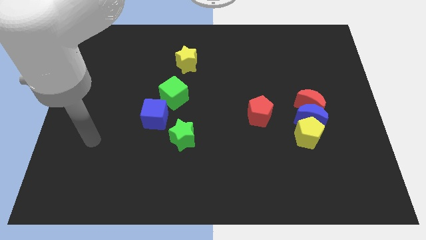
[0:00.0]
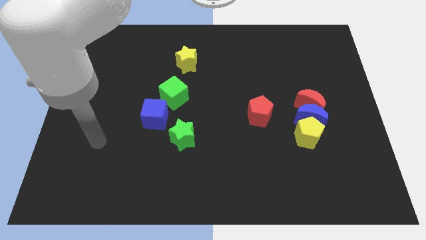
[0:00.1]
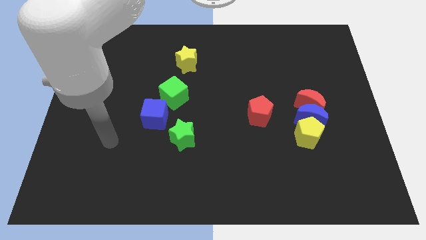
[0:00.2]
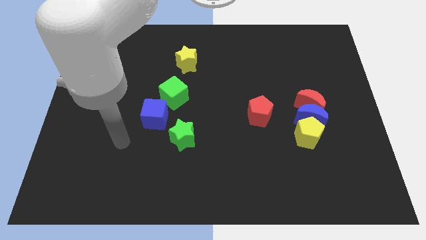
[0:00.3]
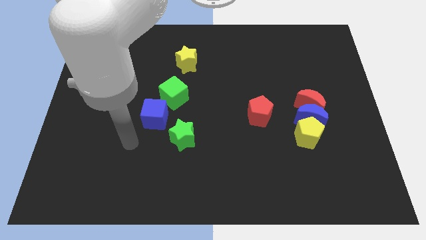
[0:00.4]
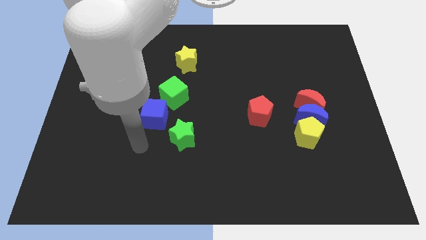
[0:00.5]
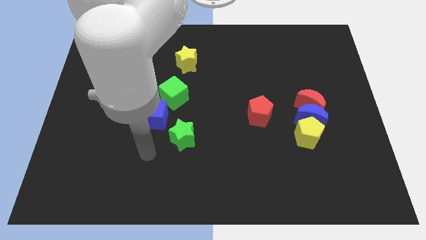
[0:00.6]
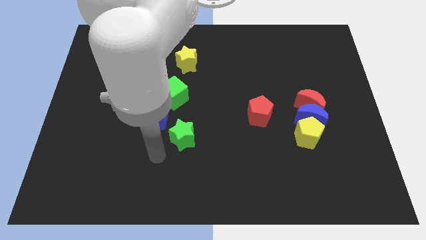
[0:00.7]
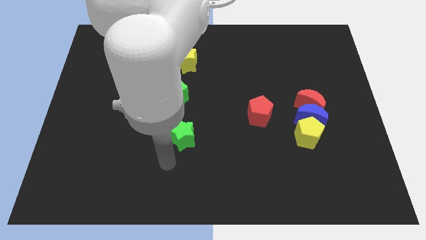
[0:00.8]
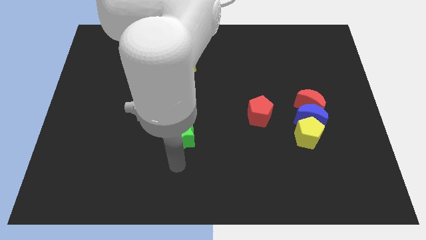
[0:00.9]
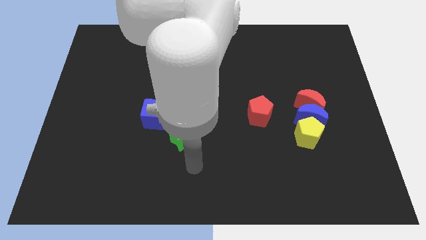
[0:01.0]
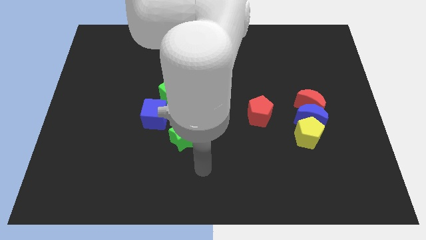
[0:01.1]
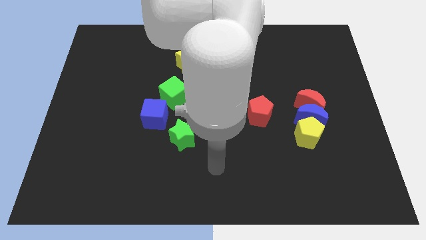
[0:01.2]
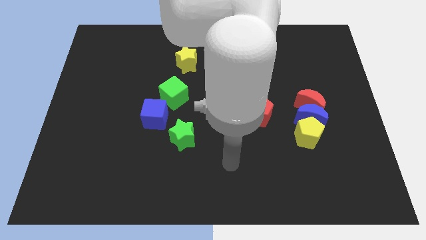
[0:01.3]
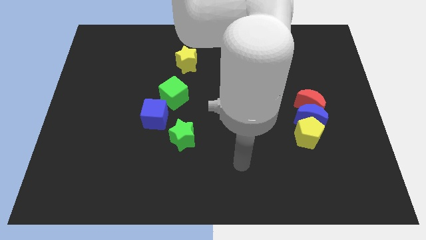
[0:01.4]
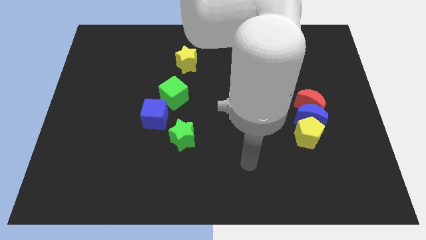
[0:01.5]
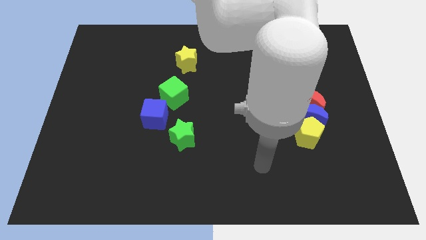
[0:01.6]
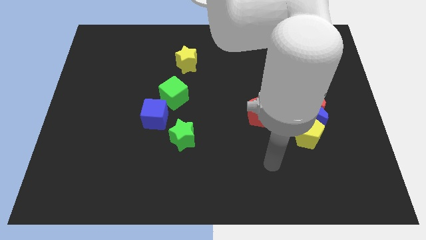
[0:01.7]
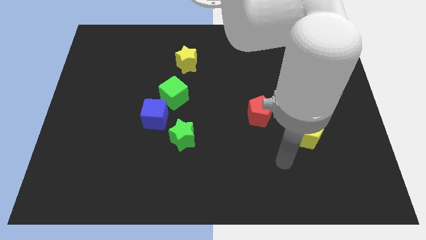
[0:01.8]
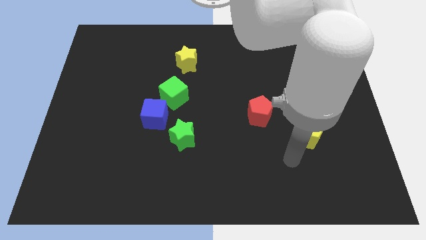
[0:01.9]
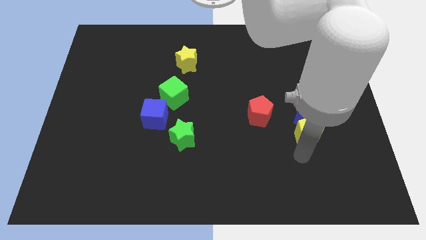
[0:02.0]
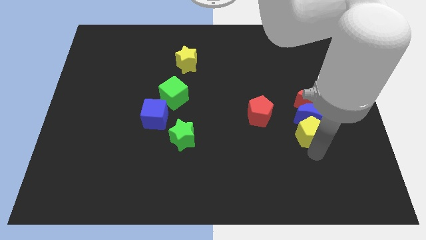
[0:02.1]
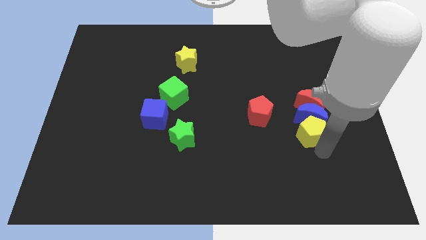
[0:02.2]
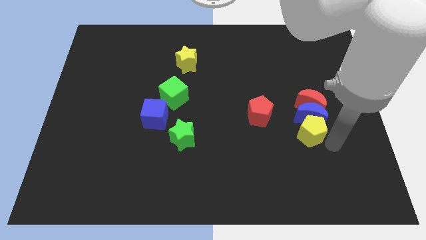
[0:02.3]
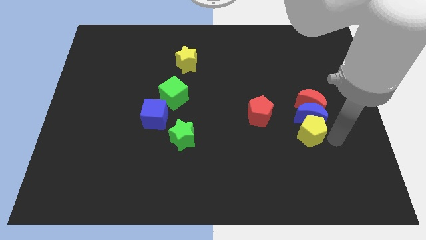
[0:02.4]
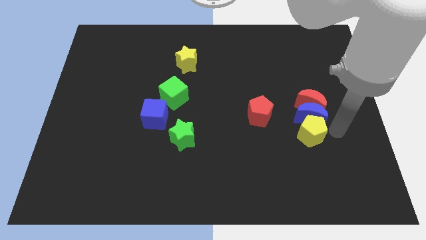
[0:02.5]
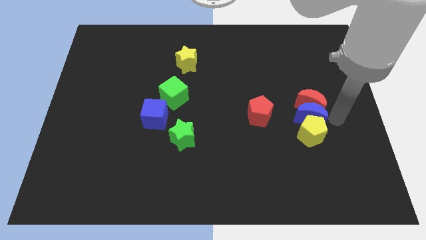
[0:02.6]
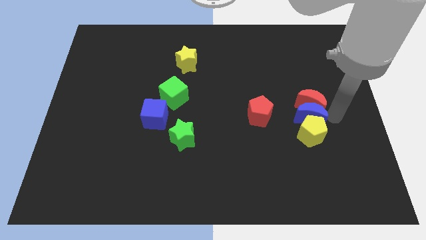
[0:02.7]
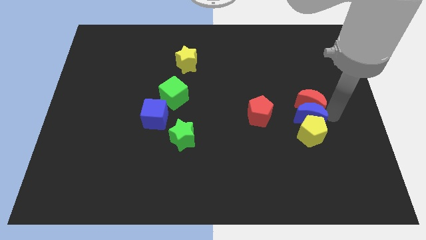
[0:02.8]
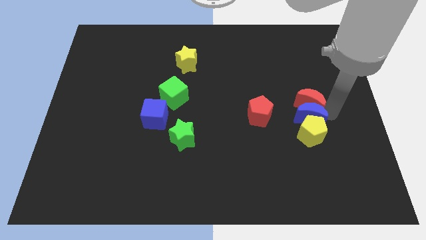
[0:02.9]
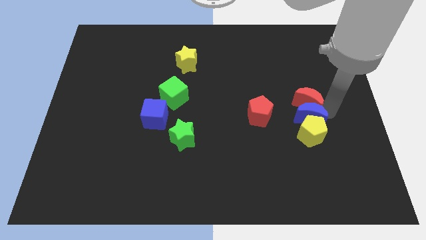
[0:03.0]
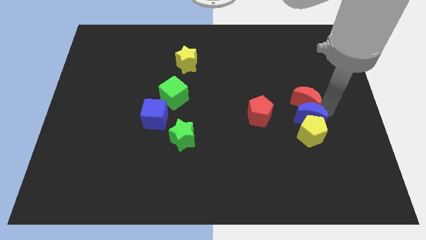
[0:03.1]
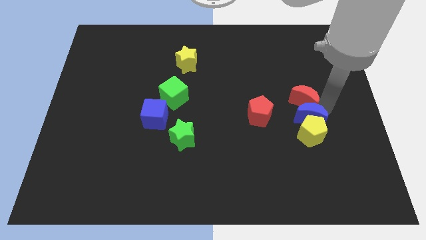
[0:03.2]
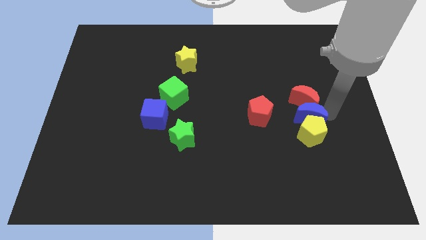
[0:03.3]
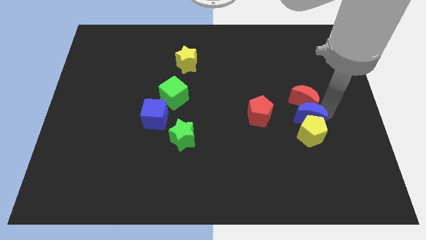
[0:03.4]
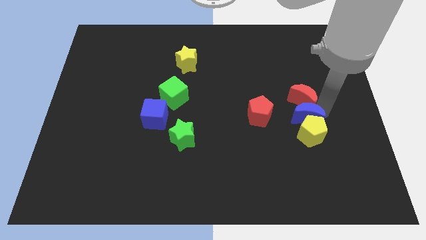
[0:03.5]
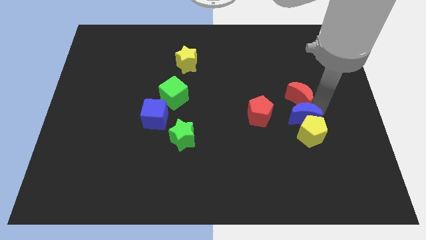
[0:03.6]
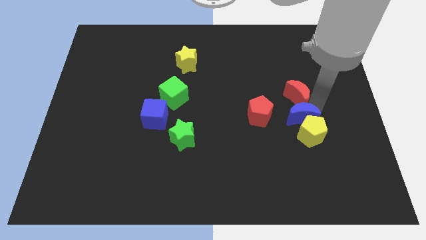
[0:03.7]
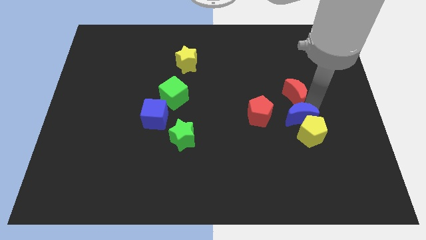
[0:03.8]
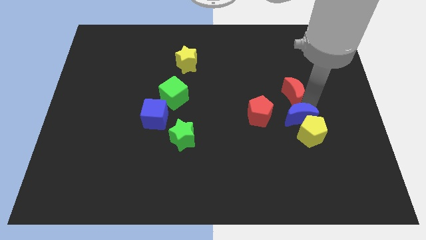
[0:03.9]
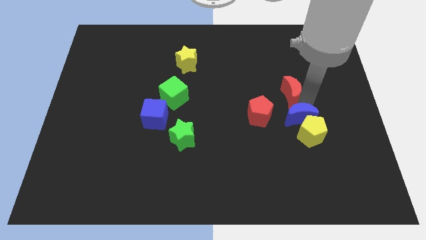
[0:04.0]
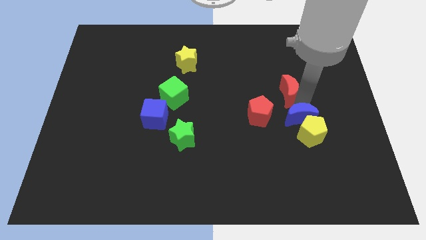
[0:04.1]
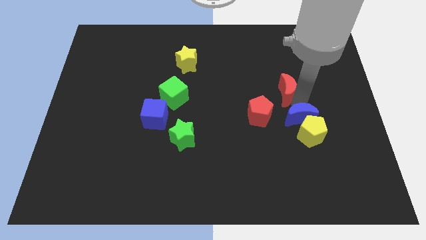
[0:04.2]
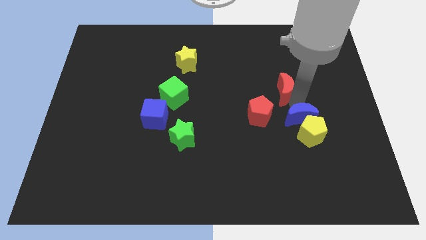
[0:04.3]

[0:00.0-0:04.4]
slide the red moon a little bit upwards and left diagonally

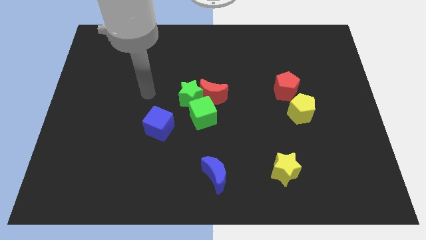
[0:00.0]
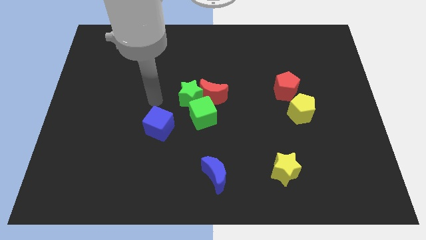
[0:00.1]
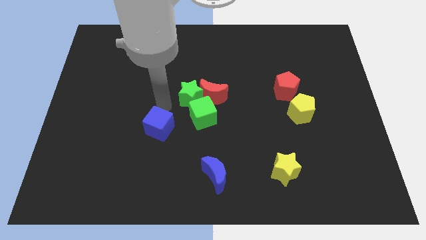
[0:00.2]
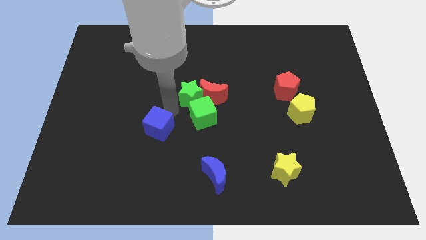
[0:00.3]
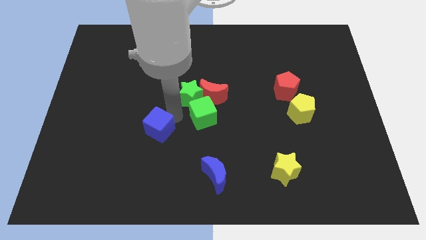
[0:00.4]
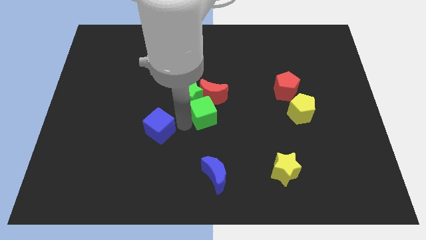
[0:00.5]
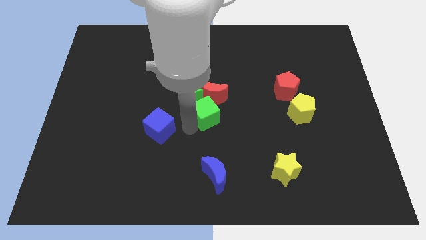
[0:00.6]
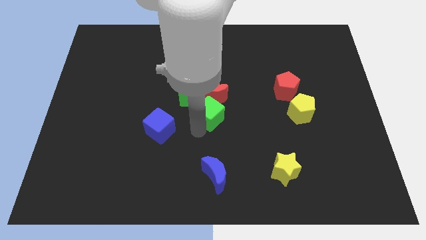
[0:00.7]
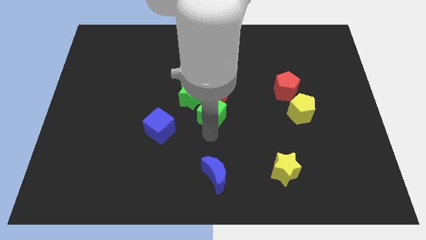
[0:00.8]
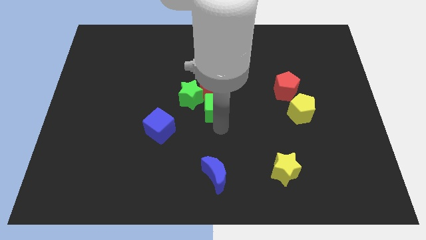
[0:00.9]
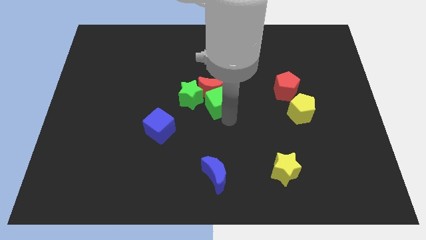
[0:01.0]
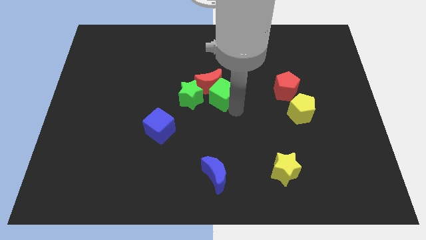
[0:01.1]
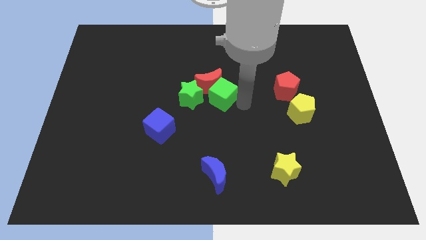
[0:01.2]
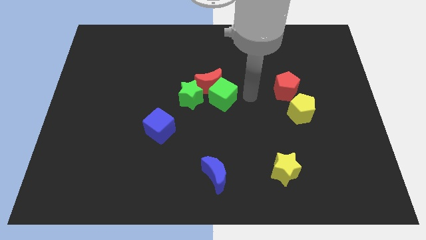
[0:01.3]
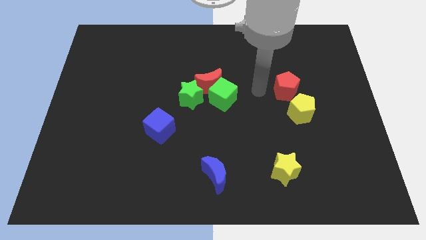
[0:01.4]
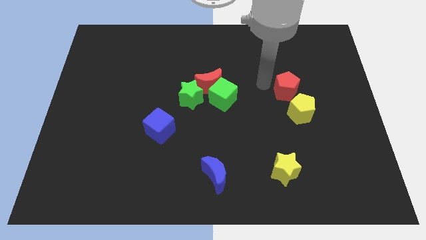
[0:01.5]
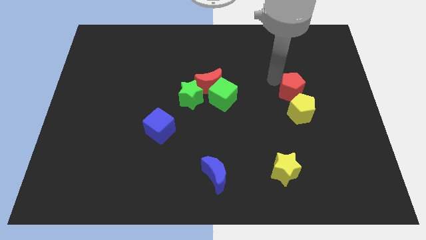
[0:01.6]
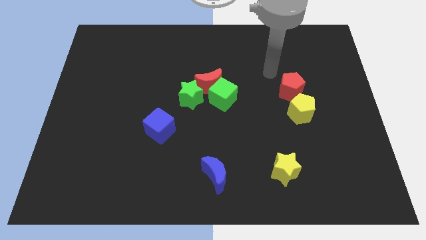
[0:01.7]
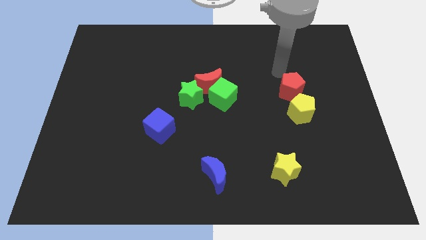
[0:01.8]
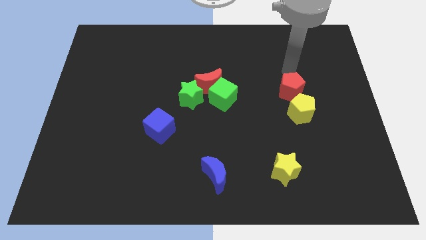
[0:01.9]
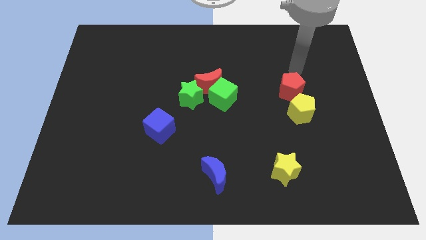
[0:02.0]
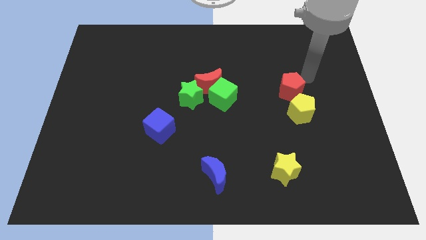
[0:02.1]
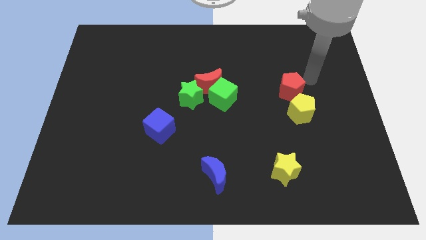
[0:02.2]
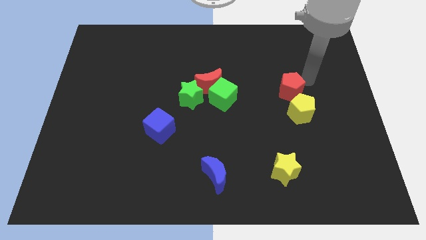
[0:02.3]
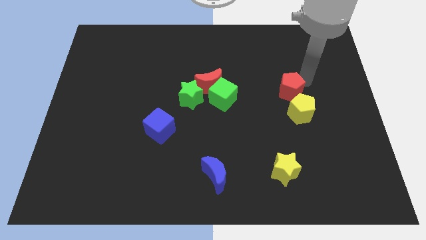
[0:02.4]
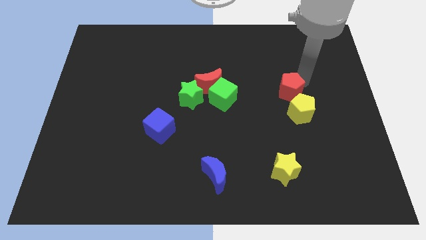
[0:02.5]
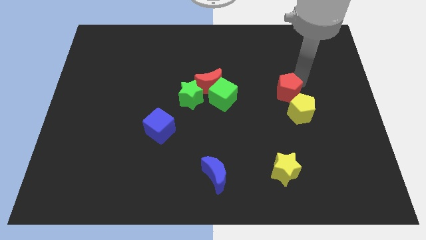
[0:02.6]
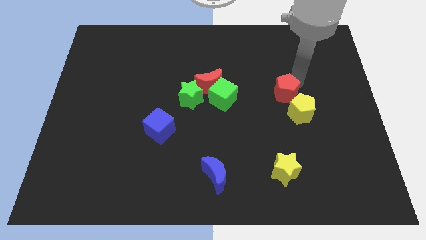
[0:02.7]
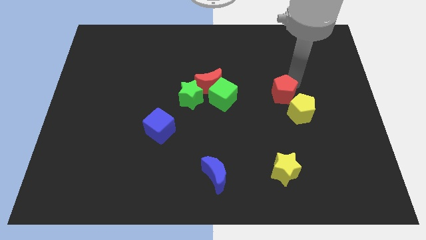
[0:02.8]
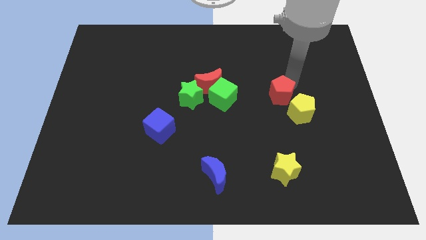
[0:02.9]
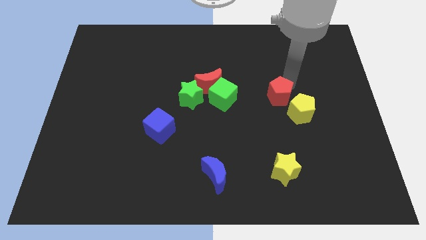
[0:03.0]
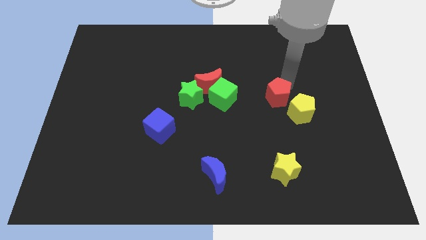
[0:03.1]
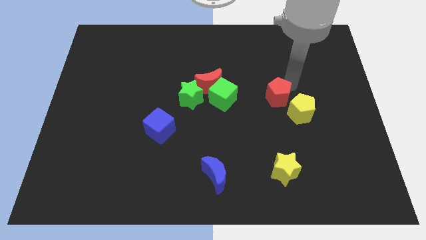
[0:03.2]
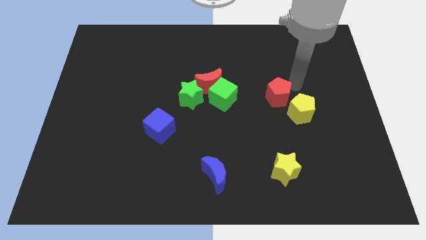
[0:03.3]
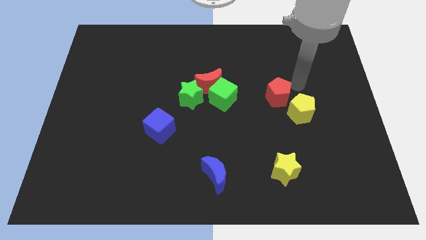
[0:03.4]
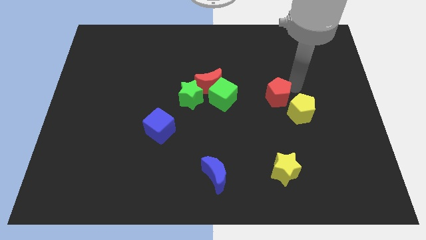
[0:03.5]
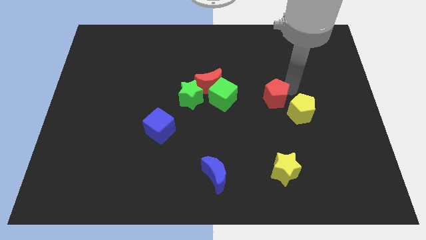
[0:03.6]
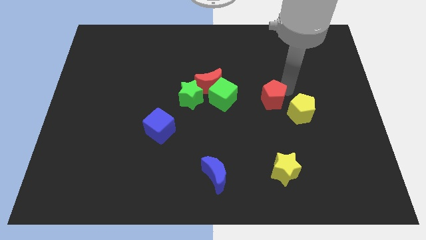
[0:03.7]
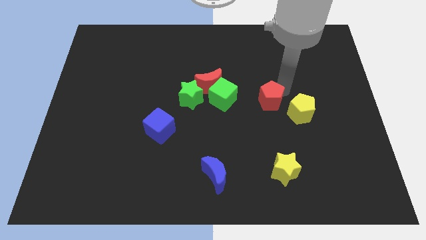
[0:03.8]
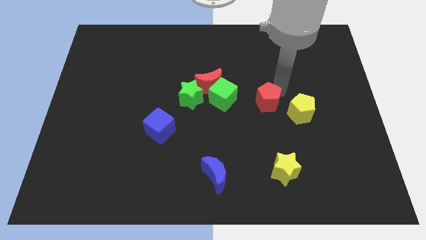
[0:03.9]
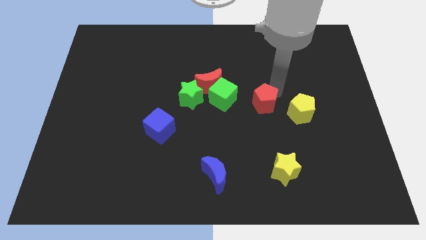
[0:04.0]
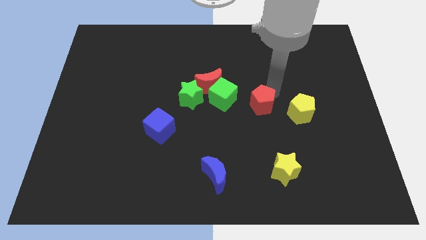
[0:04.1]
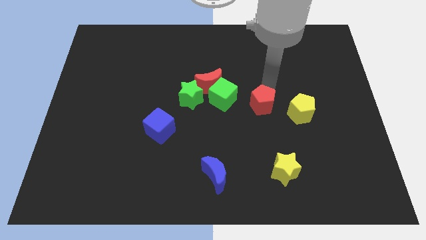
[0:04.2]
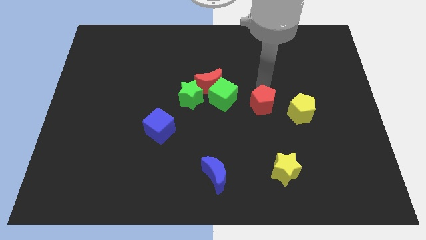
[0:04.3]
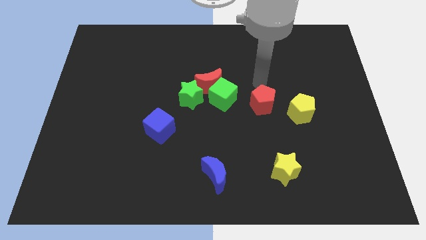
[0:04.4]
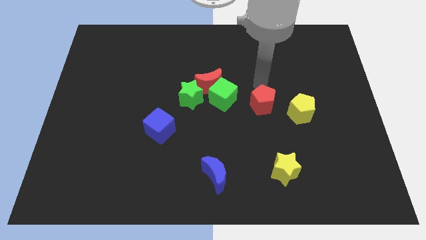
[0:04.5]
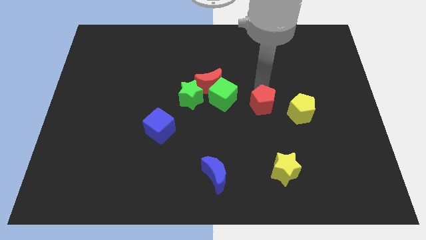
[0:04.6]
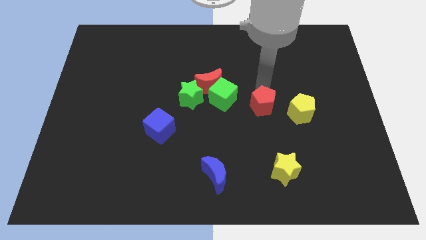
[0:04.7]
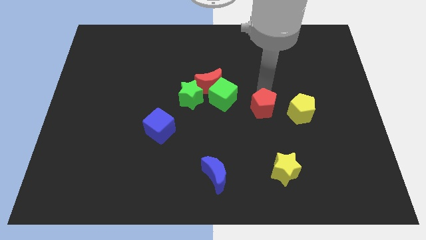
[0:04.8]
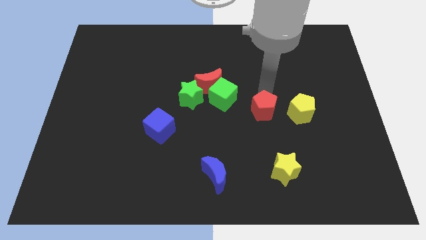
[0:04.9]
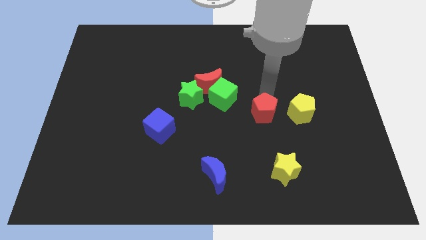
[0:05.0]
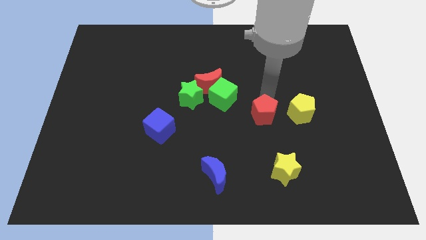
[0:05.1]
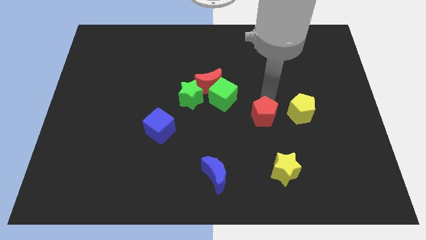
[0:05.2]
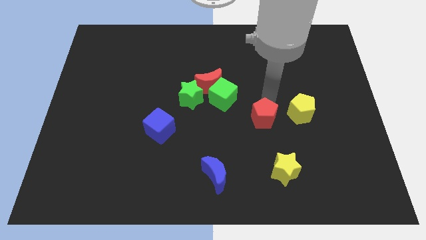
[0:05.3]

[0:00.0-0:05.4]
slightly move the red pentagon downwards
